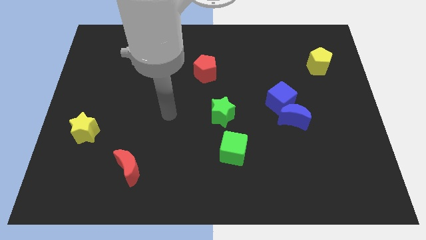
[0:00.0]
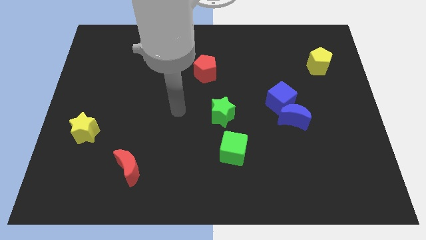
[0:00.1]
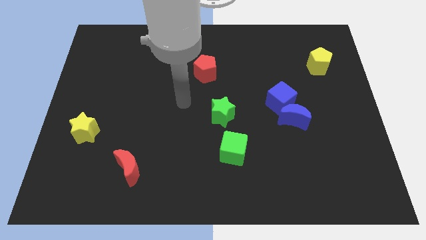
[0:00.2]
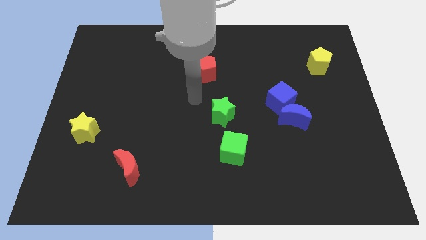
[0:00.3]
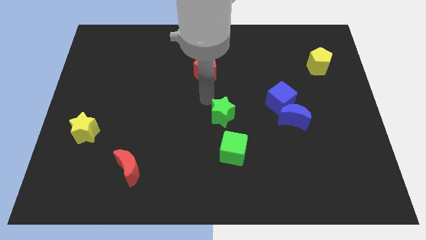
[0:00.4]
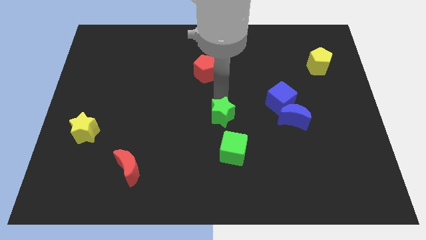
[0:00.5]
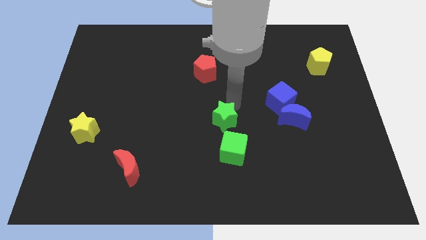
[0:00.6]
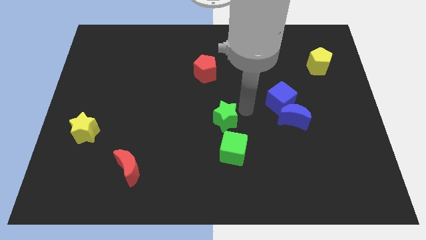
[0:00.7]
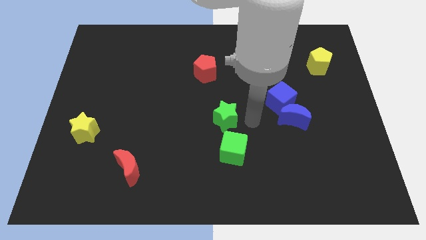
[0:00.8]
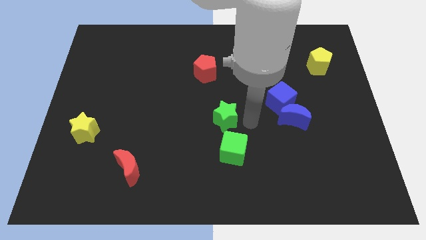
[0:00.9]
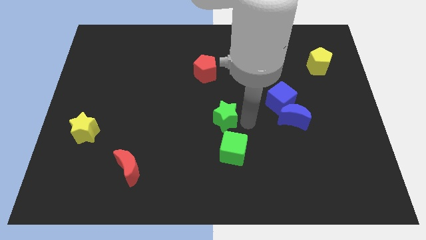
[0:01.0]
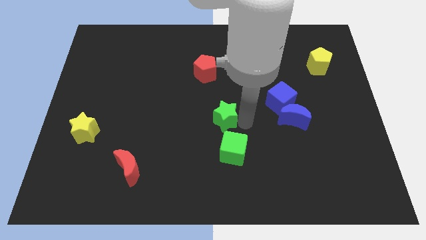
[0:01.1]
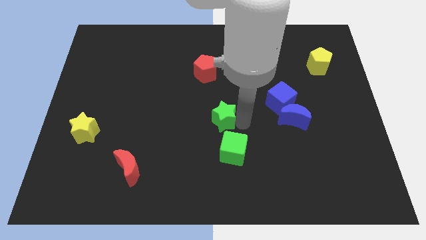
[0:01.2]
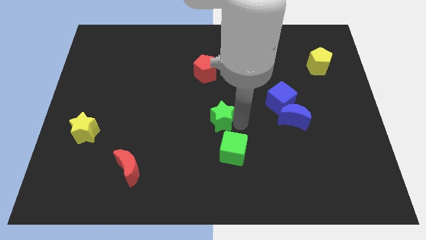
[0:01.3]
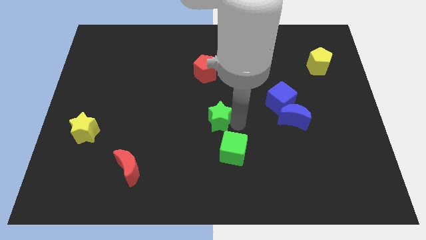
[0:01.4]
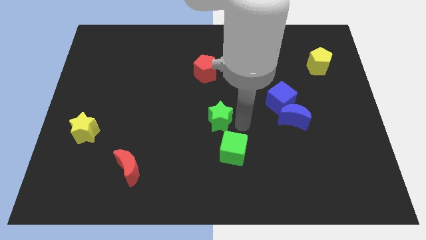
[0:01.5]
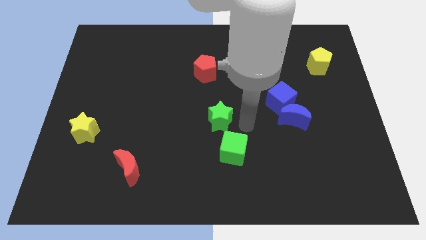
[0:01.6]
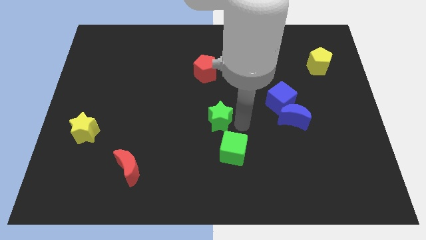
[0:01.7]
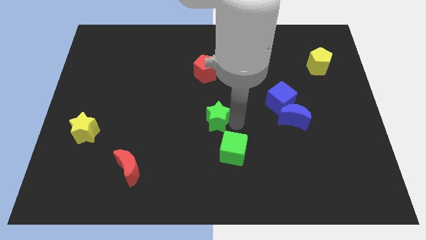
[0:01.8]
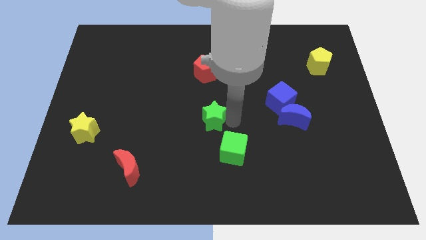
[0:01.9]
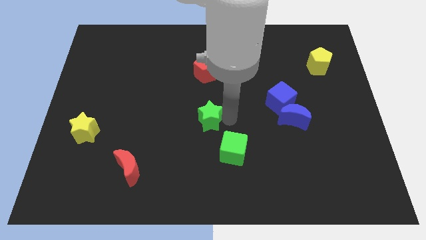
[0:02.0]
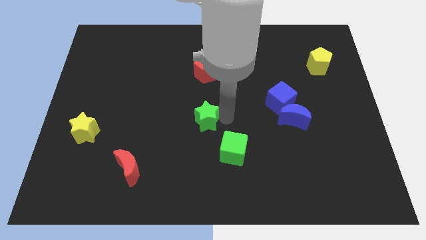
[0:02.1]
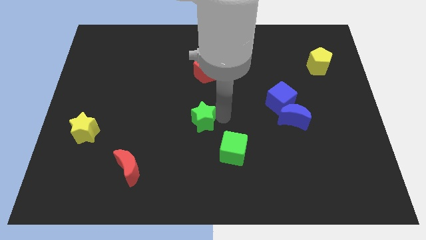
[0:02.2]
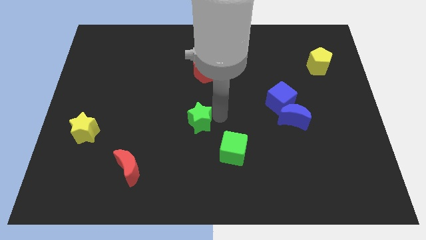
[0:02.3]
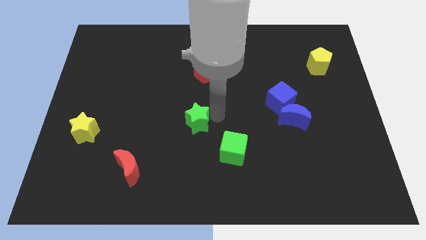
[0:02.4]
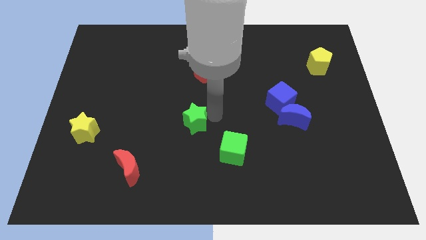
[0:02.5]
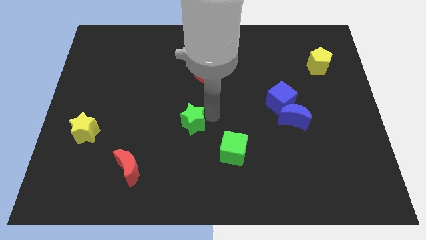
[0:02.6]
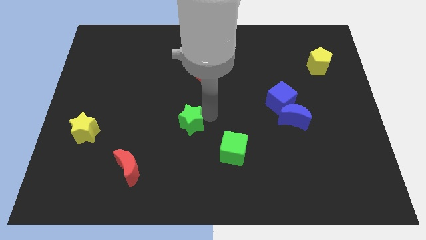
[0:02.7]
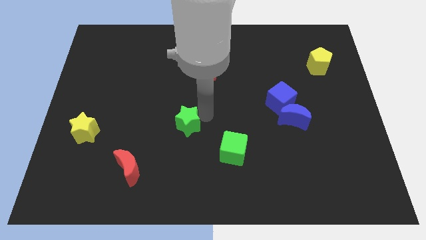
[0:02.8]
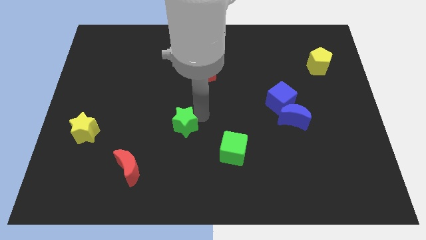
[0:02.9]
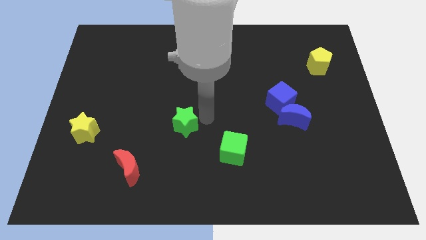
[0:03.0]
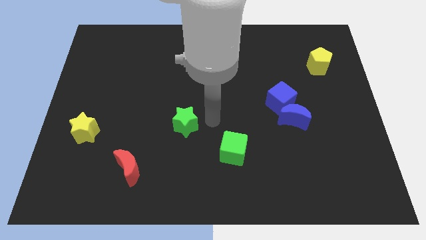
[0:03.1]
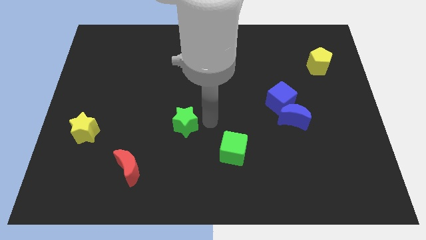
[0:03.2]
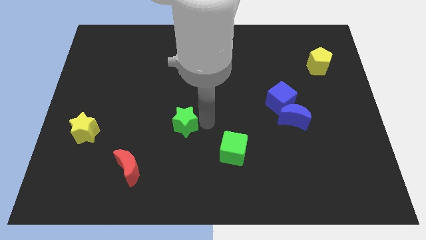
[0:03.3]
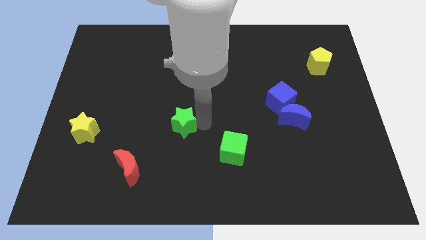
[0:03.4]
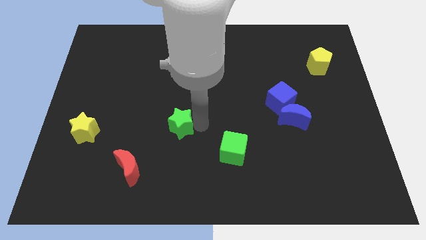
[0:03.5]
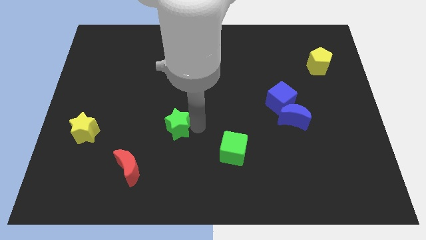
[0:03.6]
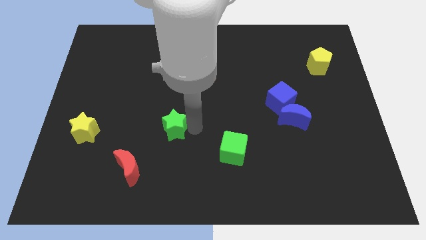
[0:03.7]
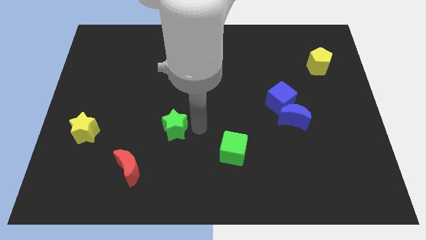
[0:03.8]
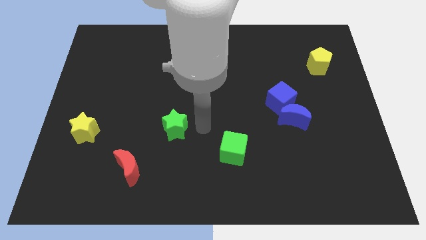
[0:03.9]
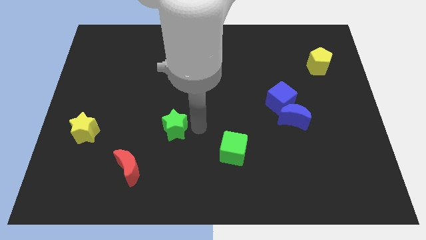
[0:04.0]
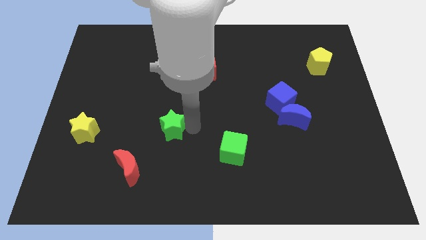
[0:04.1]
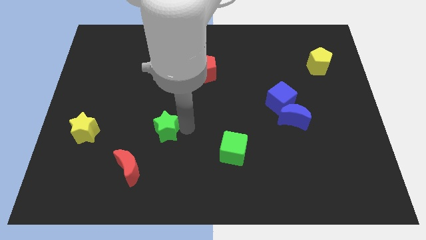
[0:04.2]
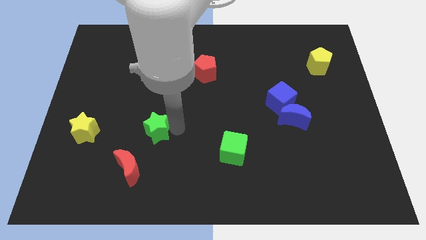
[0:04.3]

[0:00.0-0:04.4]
move the green star right of the yellow star

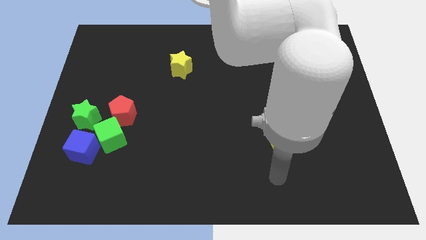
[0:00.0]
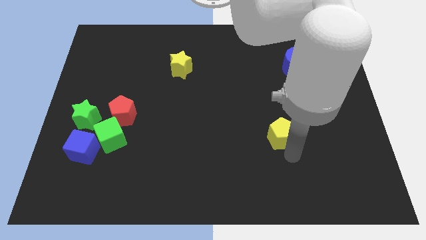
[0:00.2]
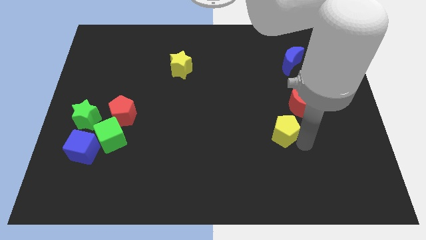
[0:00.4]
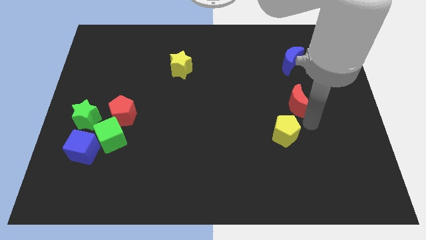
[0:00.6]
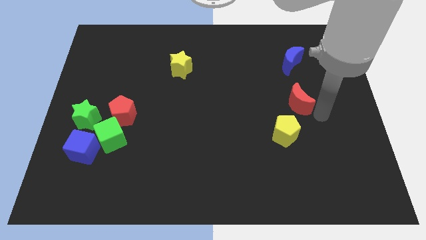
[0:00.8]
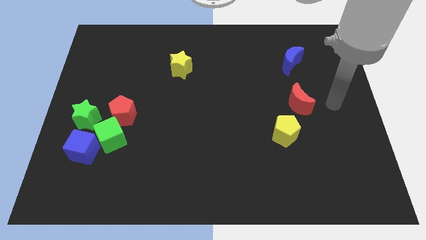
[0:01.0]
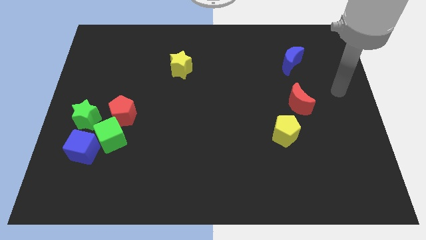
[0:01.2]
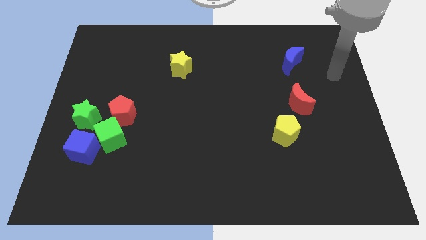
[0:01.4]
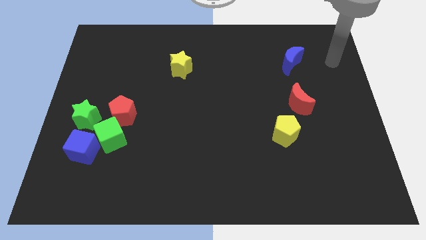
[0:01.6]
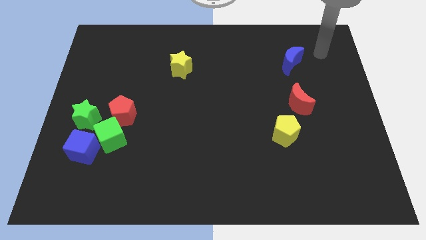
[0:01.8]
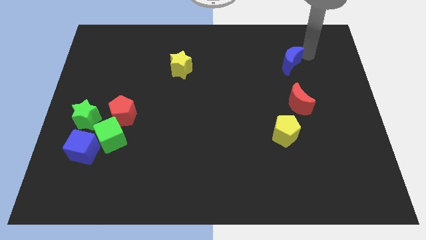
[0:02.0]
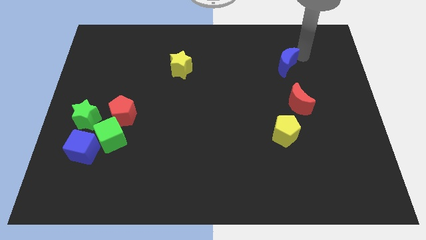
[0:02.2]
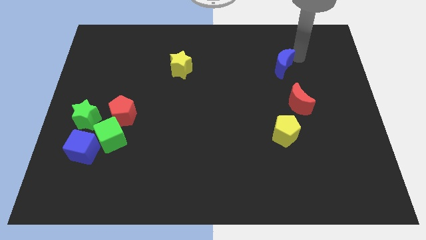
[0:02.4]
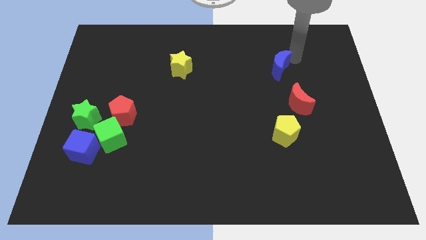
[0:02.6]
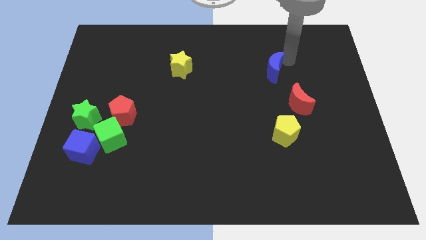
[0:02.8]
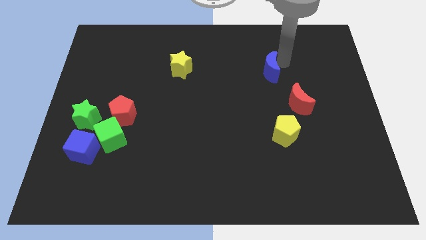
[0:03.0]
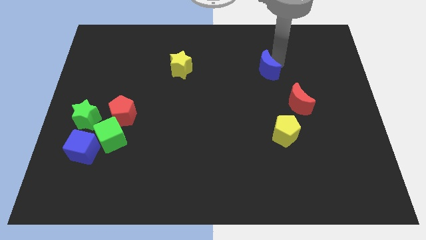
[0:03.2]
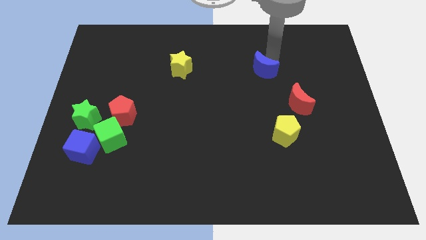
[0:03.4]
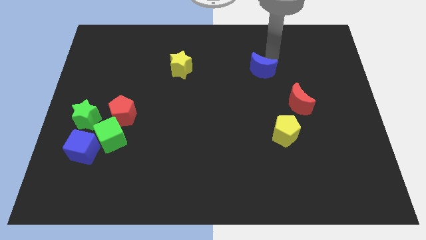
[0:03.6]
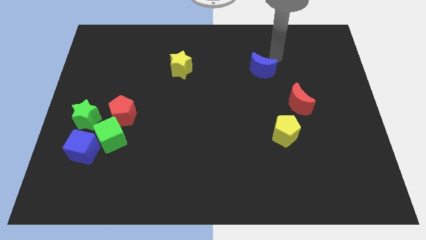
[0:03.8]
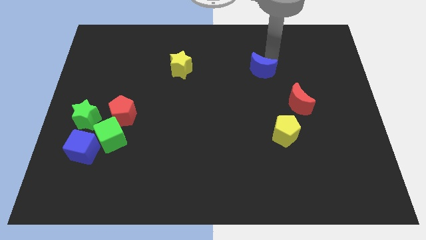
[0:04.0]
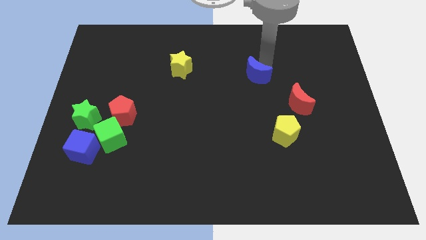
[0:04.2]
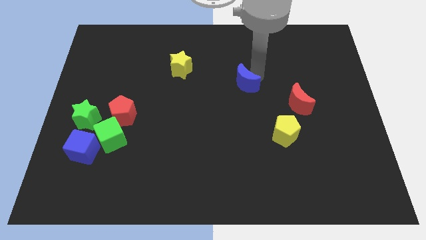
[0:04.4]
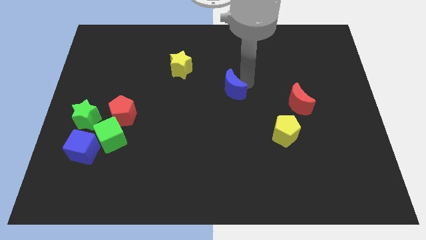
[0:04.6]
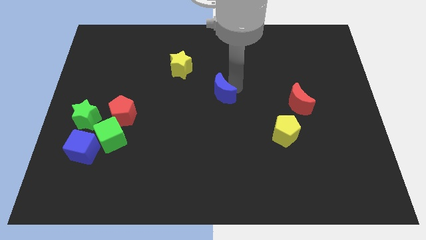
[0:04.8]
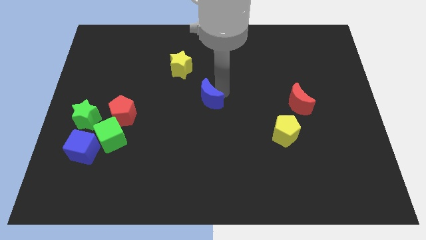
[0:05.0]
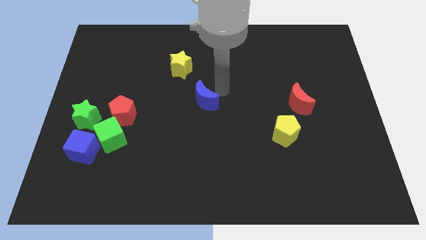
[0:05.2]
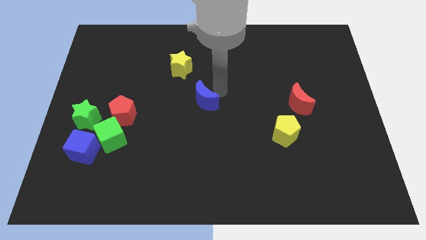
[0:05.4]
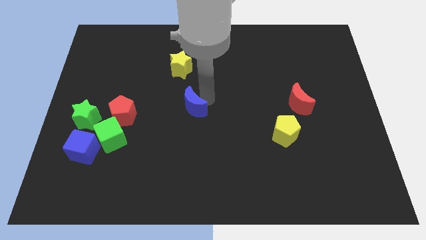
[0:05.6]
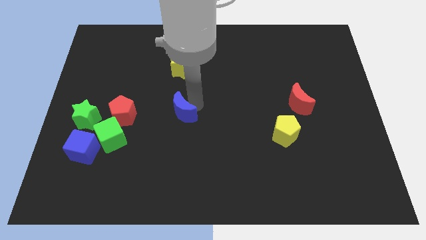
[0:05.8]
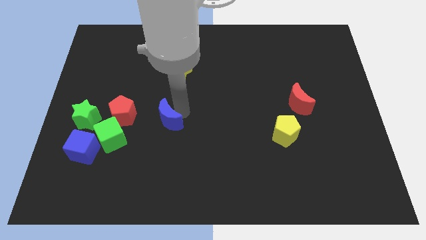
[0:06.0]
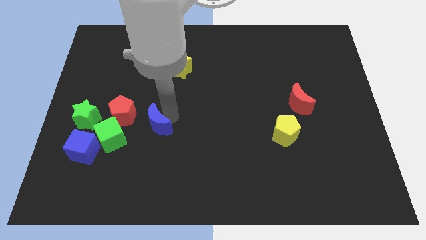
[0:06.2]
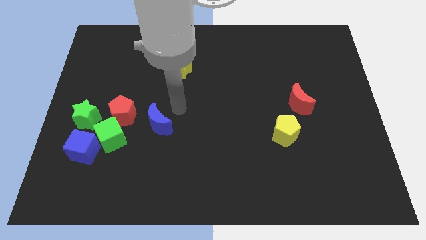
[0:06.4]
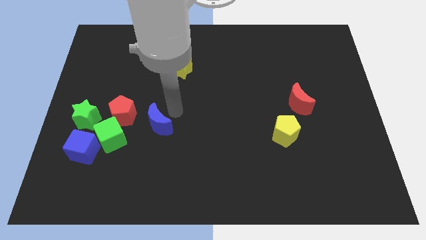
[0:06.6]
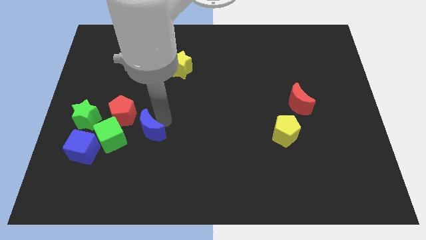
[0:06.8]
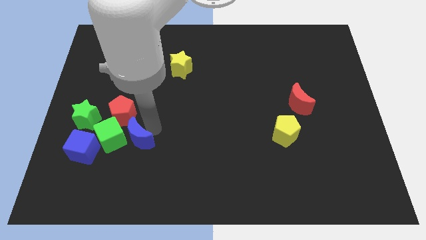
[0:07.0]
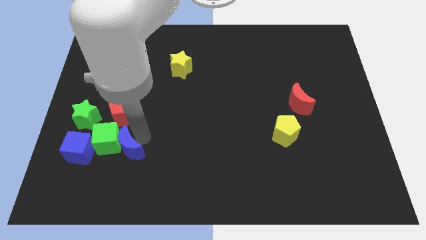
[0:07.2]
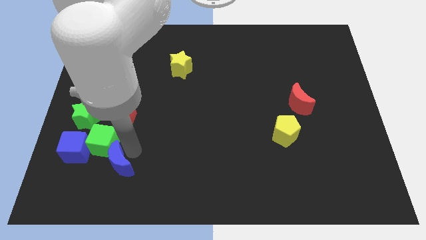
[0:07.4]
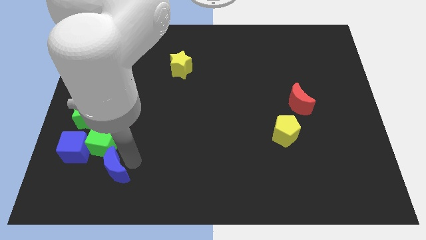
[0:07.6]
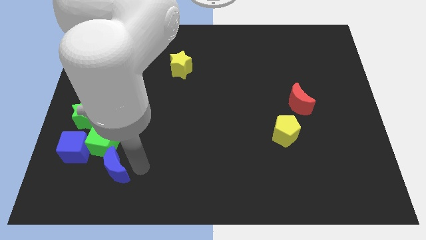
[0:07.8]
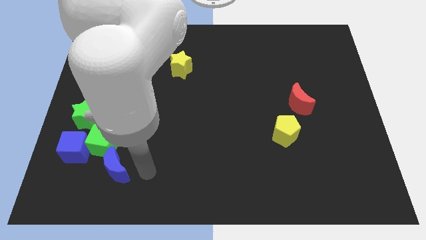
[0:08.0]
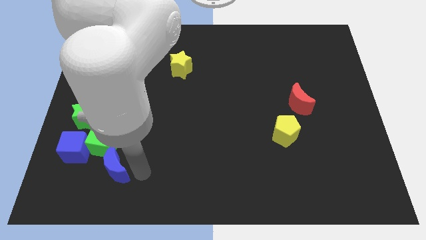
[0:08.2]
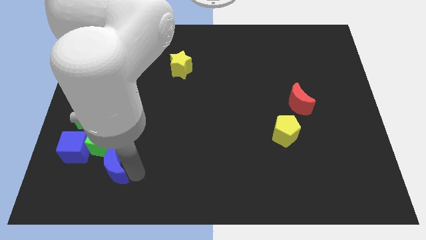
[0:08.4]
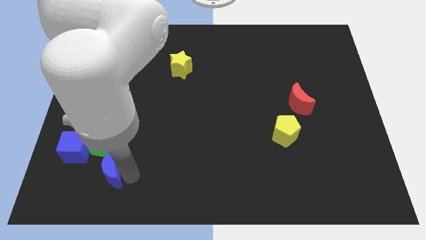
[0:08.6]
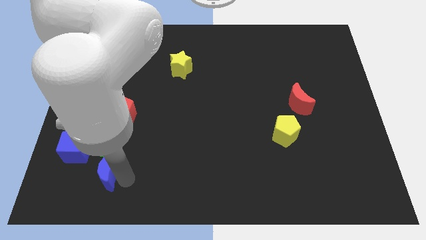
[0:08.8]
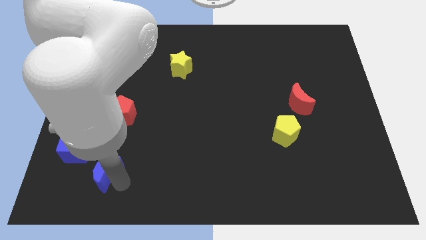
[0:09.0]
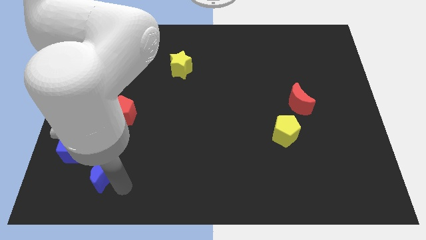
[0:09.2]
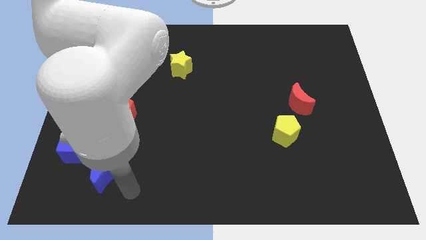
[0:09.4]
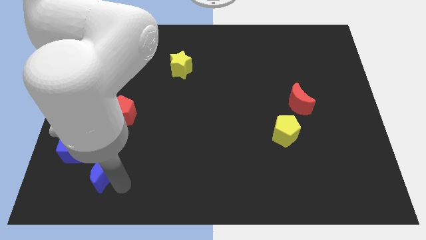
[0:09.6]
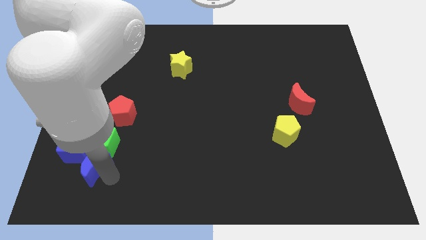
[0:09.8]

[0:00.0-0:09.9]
put the blue moon below the green star
